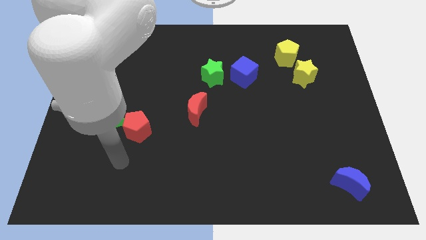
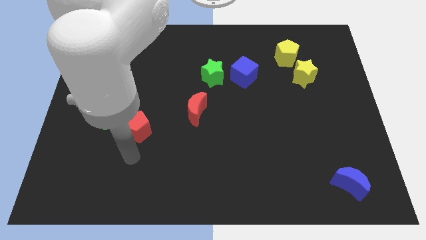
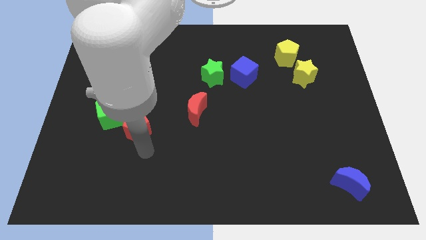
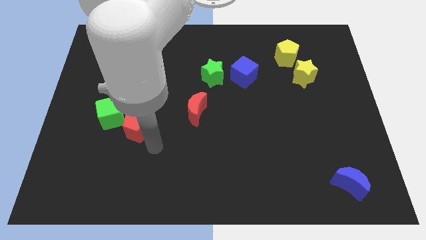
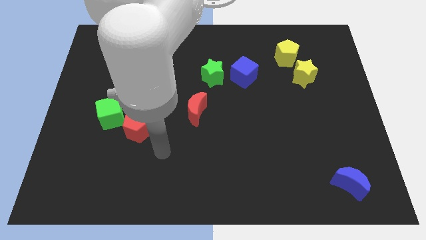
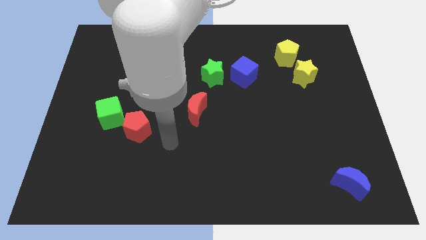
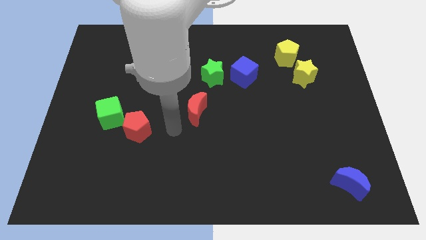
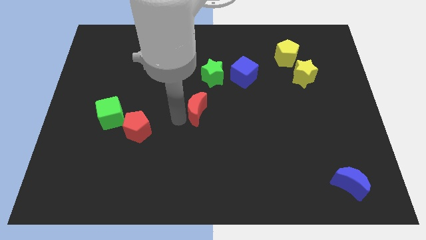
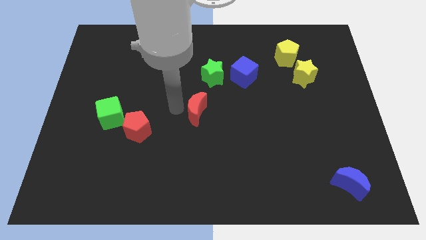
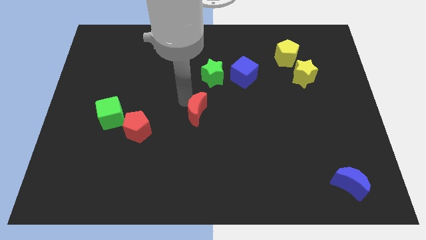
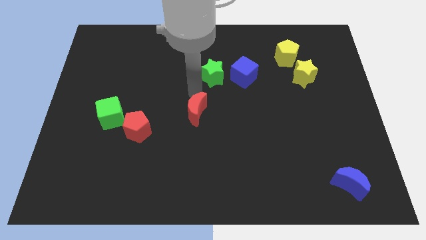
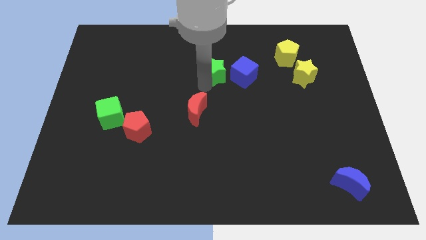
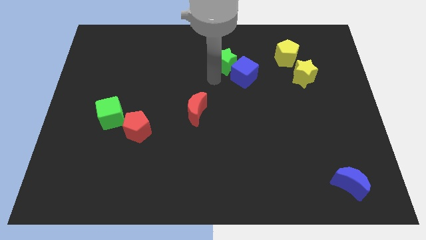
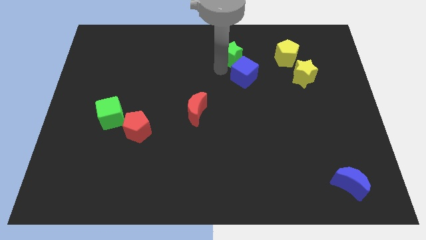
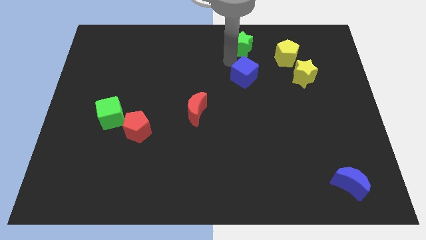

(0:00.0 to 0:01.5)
move the blue cube away from the green star

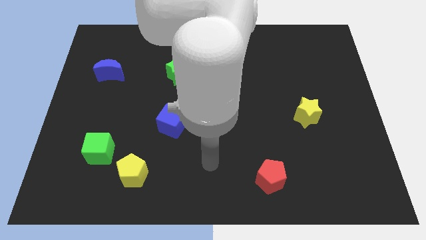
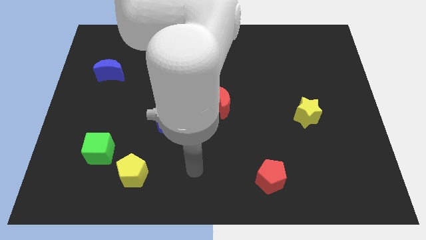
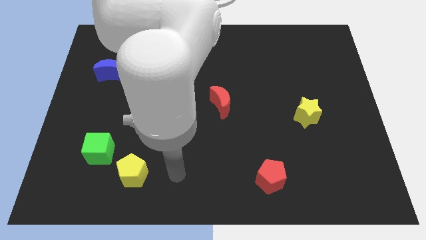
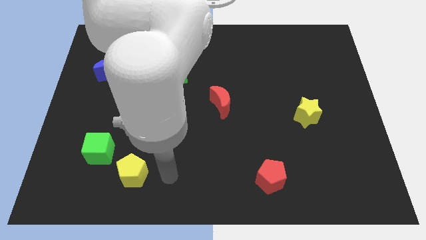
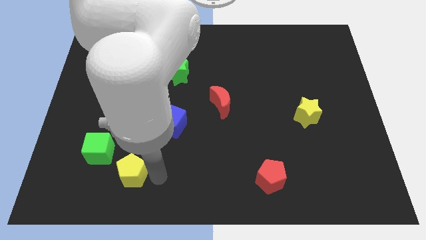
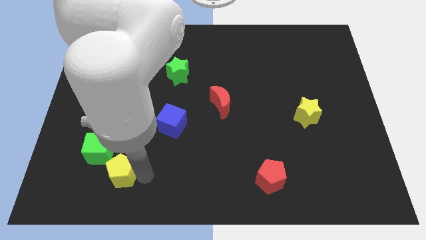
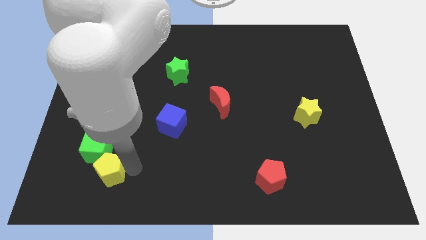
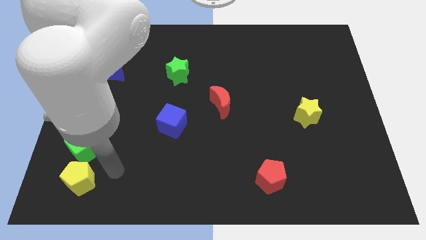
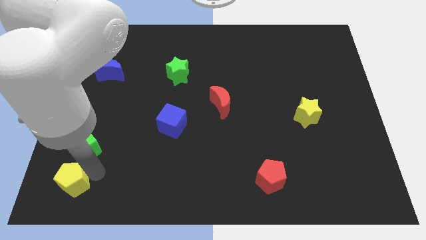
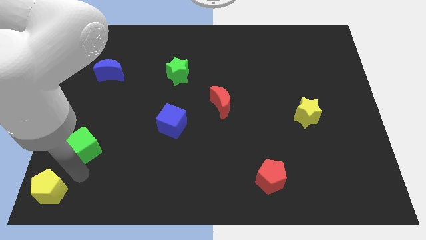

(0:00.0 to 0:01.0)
pull the green cube apart from the yellow pentagon

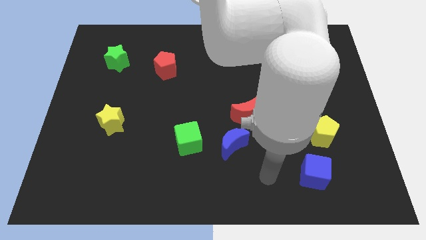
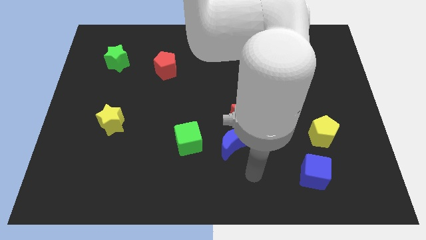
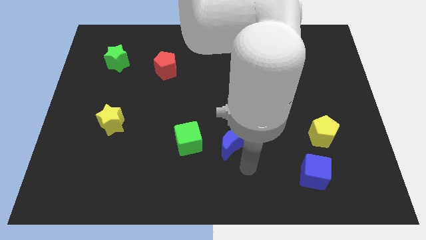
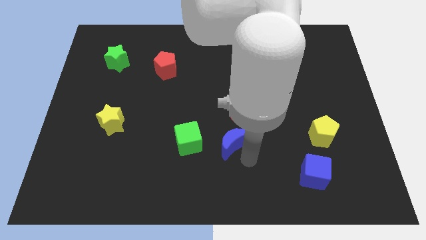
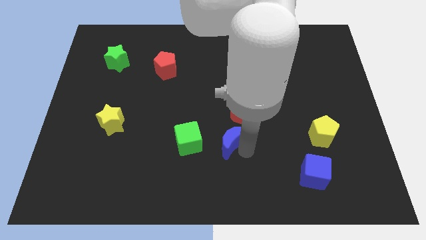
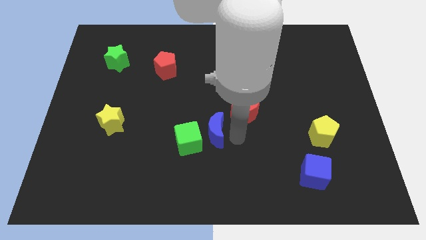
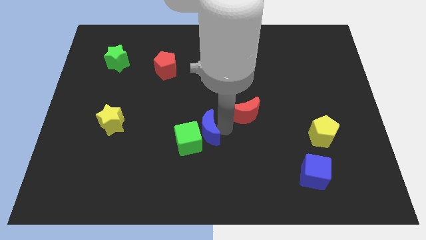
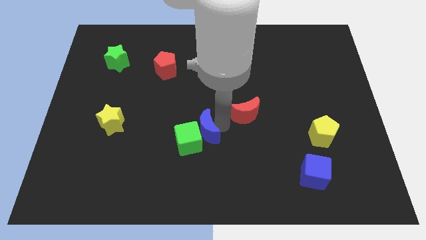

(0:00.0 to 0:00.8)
move the red moon away from the blue moon

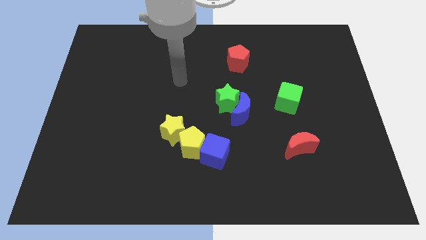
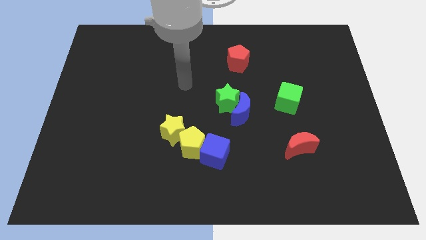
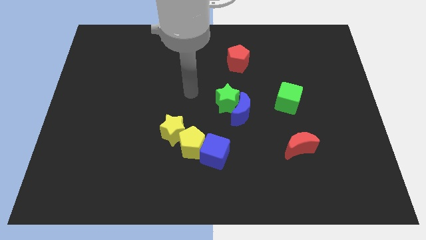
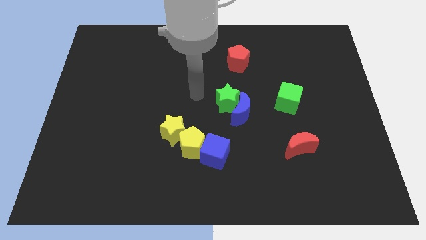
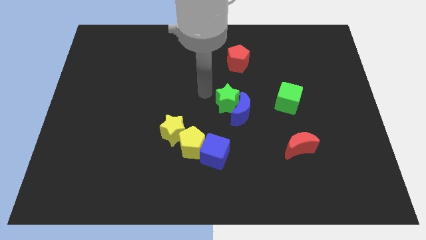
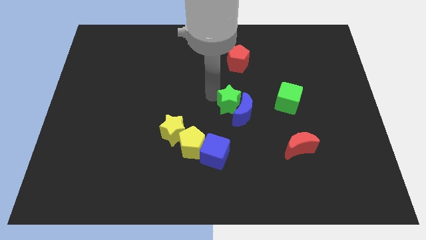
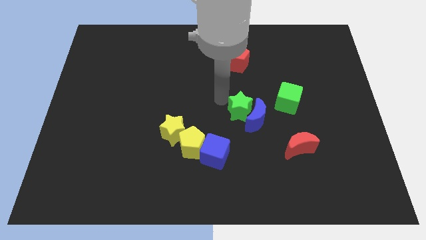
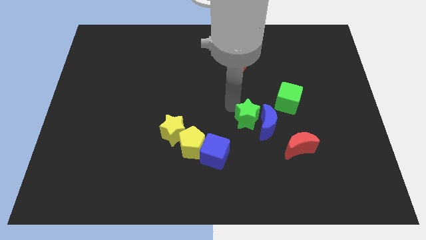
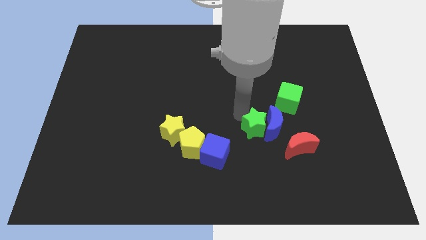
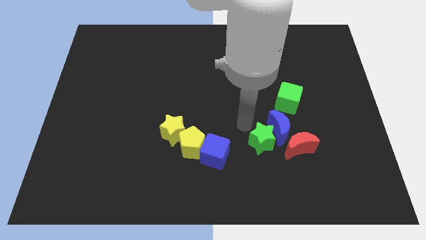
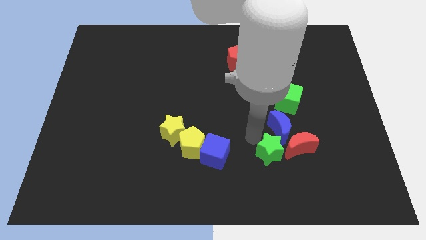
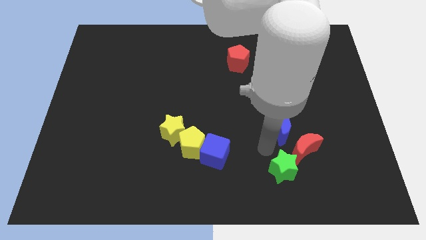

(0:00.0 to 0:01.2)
pull the blue moon apart from the green star

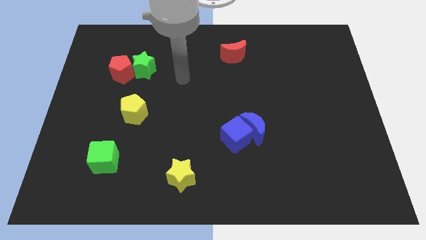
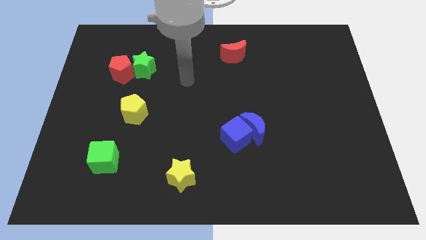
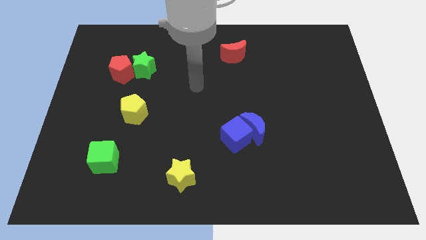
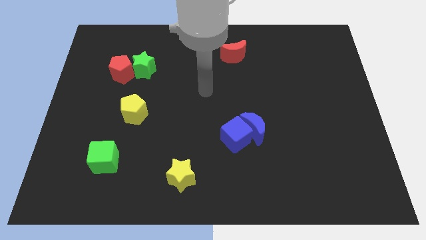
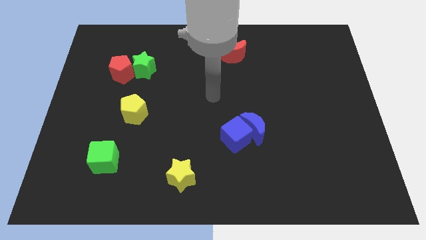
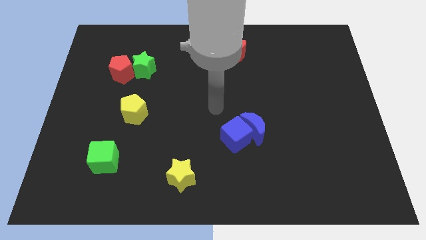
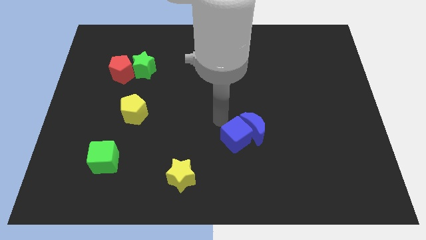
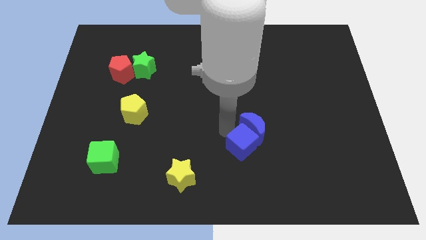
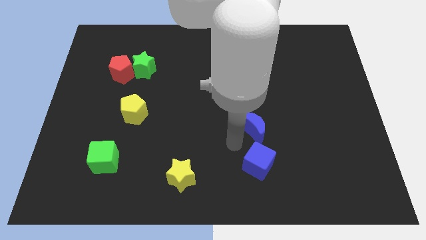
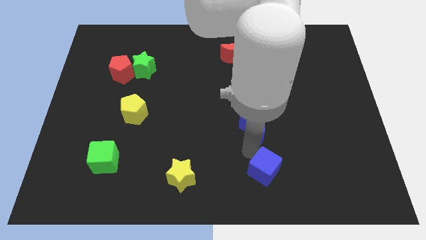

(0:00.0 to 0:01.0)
separate the blue moon from the blue cube

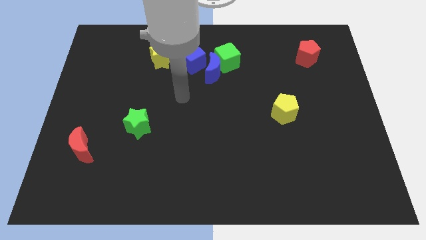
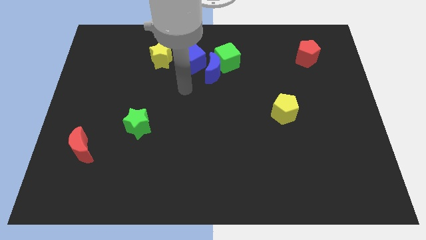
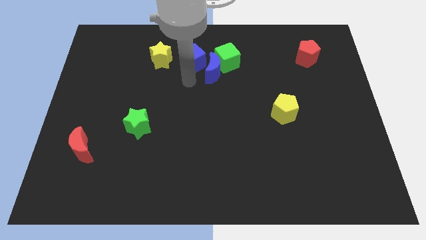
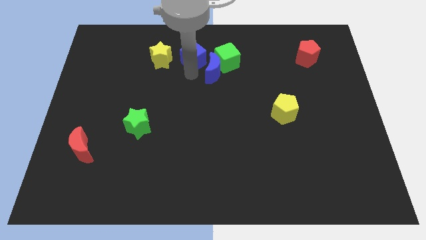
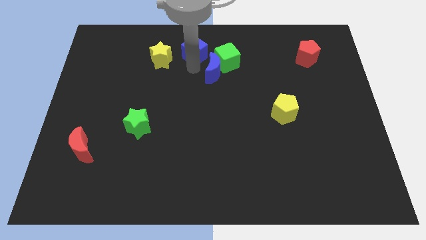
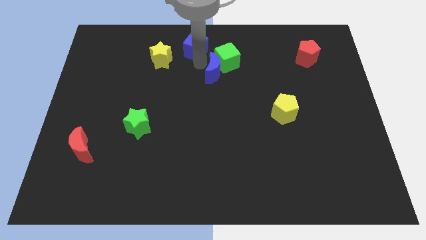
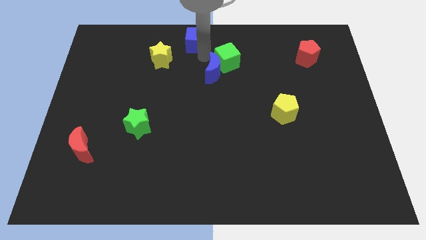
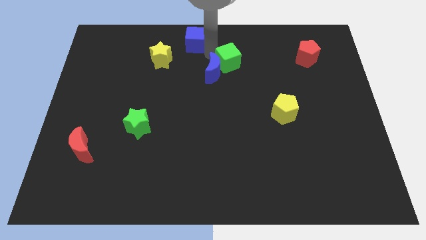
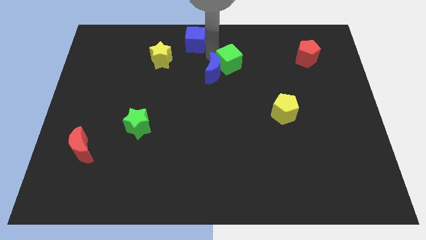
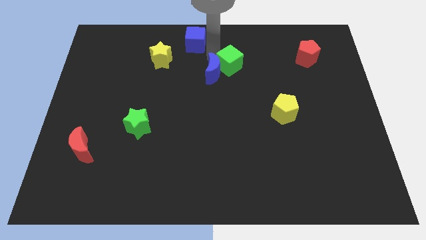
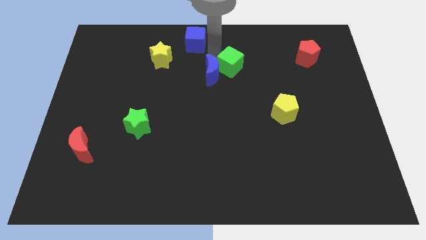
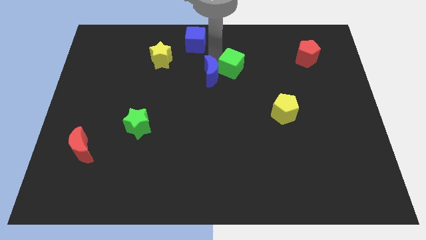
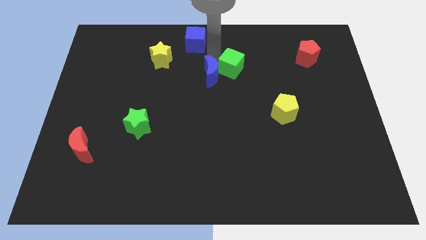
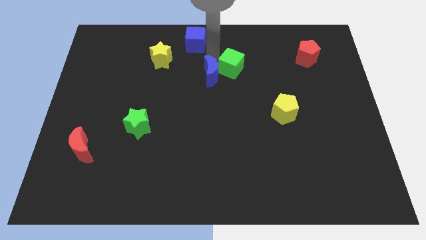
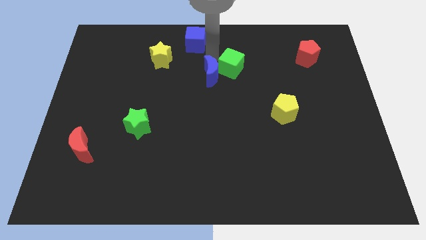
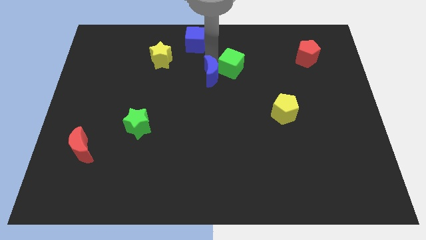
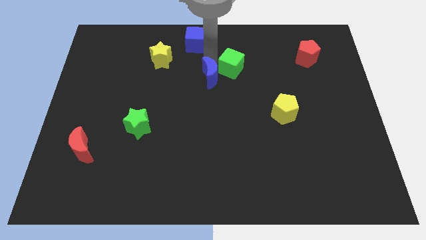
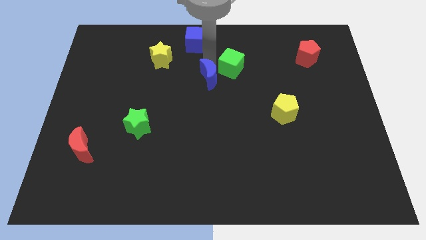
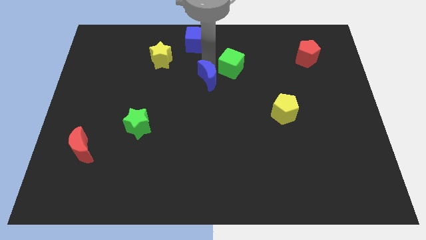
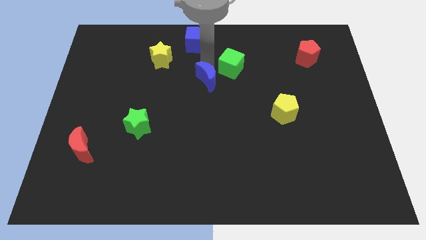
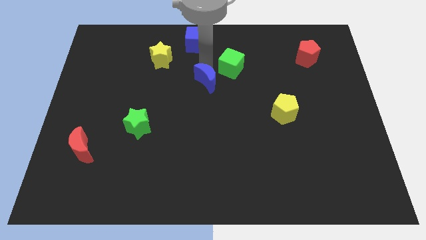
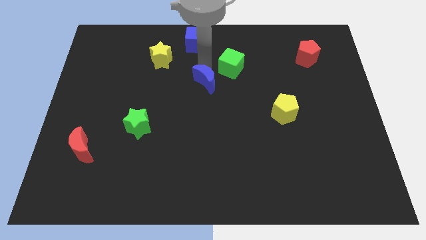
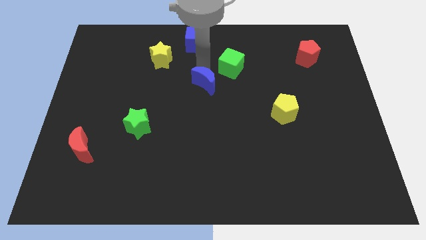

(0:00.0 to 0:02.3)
separate the blue moon from the green cube and blue cube

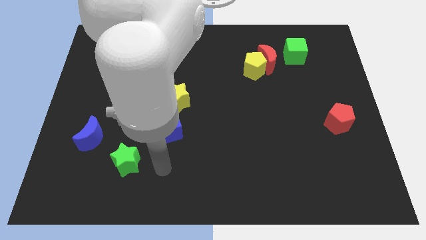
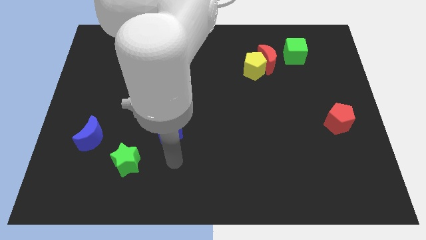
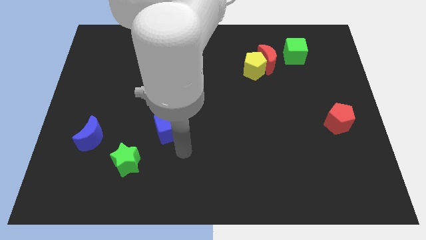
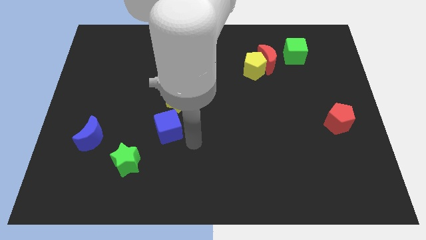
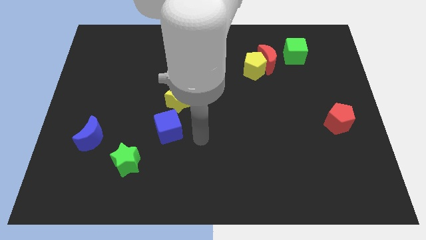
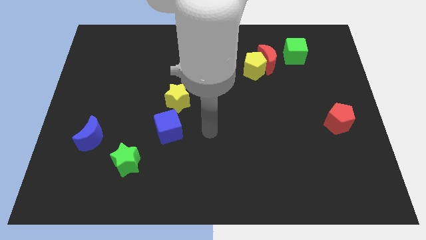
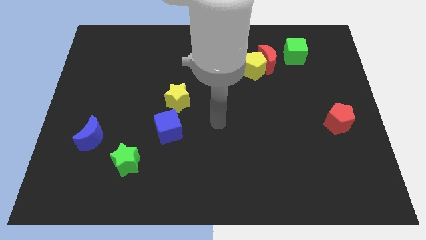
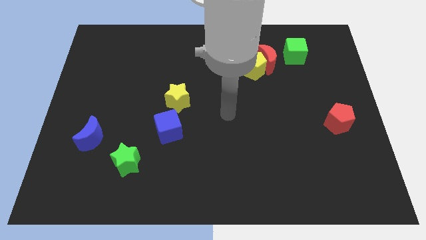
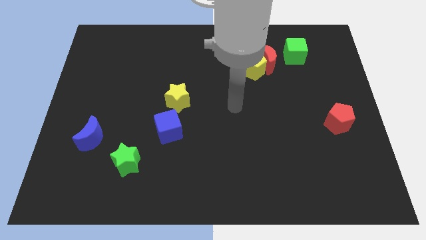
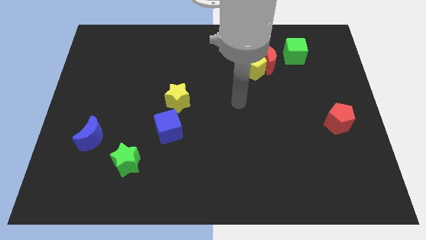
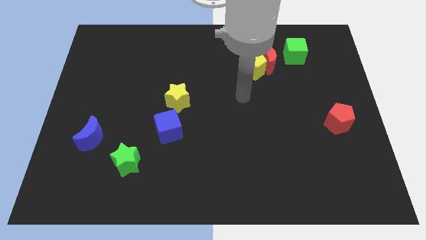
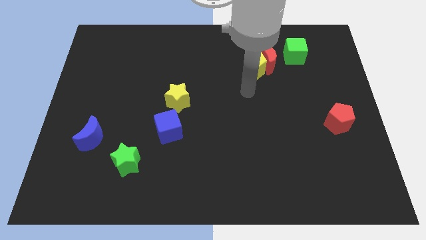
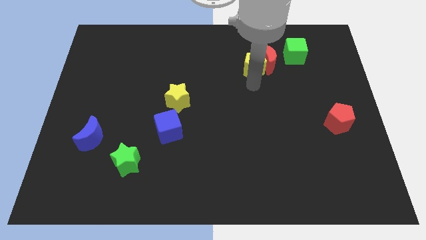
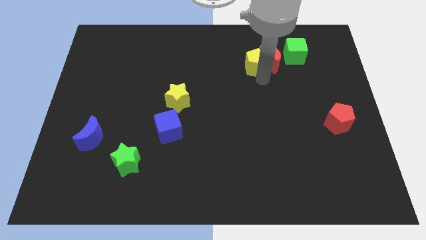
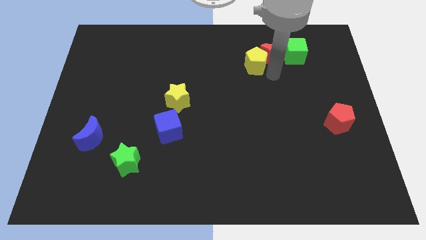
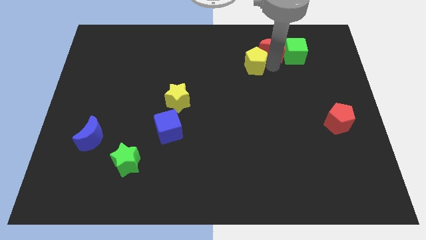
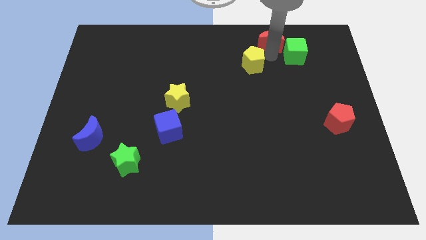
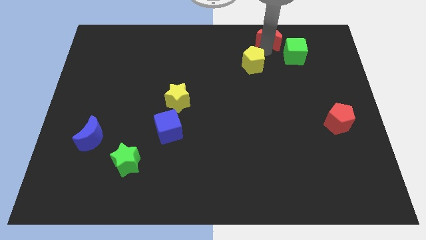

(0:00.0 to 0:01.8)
pull the yellow pentagon apart from the red moon
